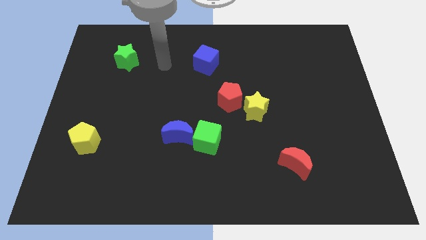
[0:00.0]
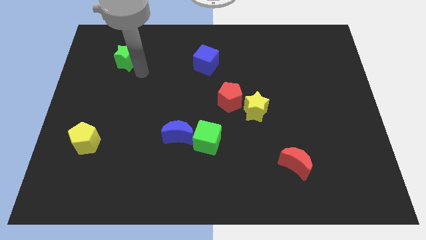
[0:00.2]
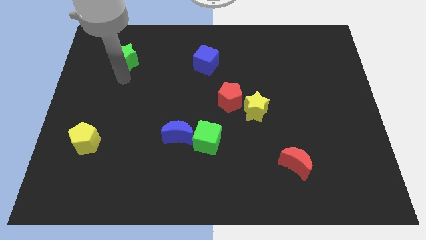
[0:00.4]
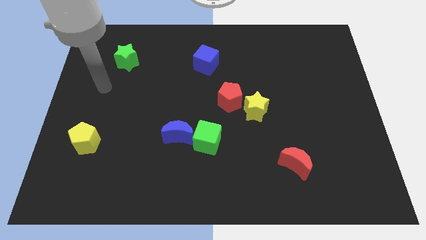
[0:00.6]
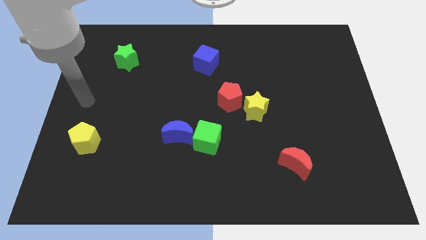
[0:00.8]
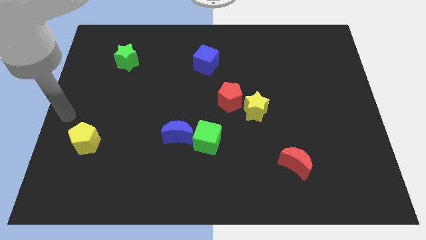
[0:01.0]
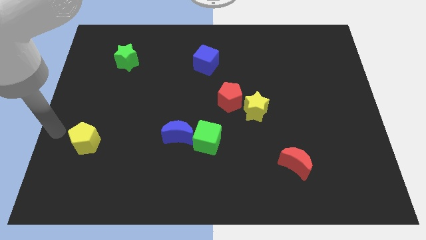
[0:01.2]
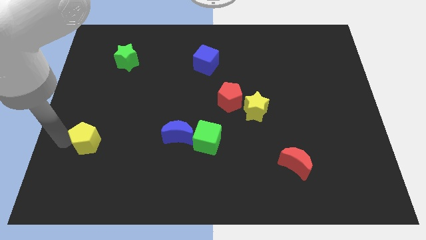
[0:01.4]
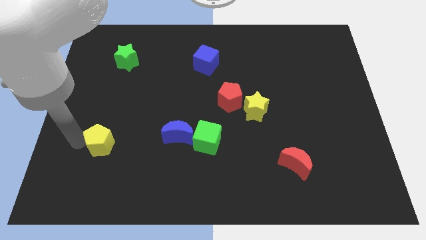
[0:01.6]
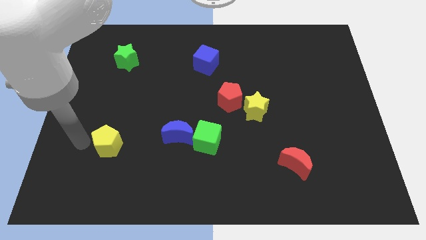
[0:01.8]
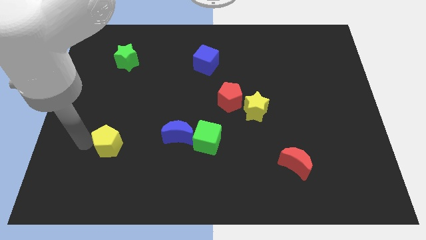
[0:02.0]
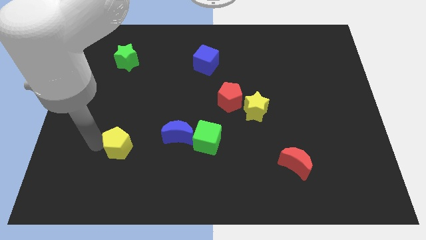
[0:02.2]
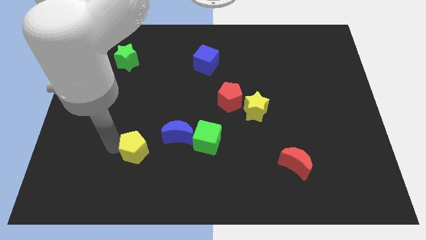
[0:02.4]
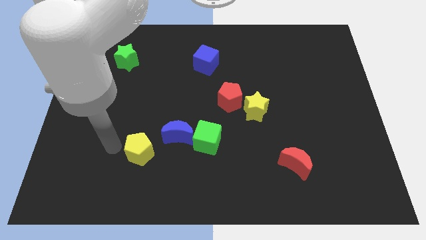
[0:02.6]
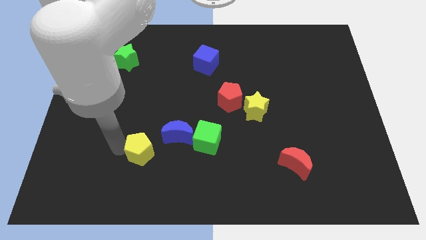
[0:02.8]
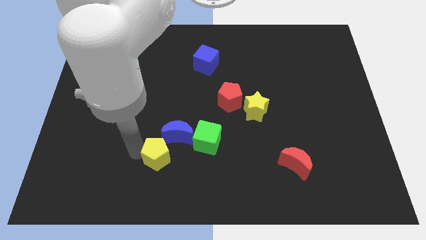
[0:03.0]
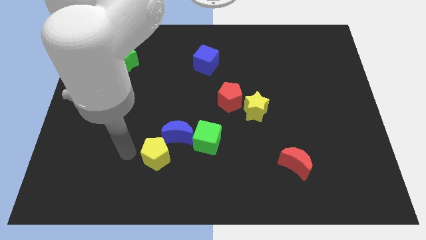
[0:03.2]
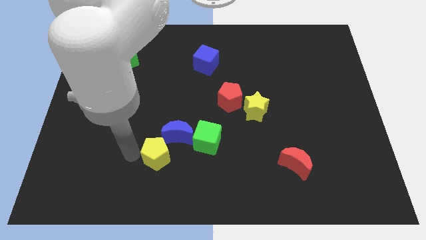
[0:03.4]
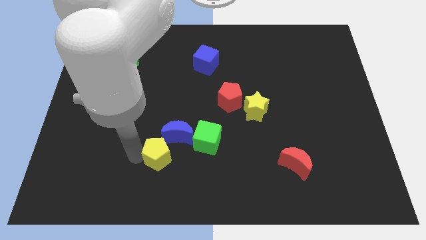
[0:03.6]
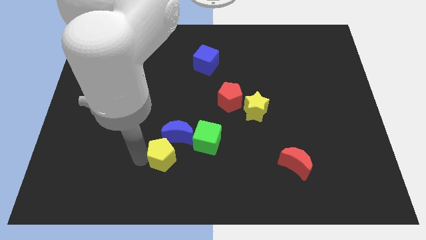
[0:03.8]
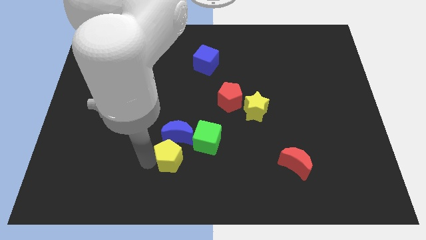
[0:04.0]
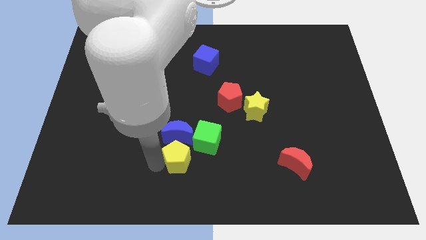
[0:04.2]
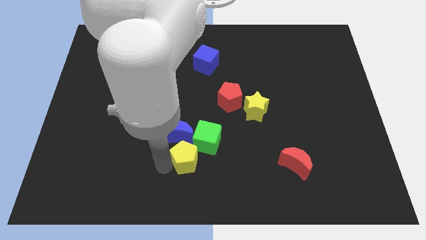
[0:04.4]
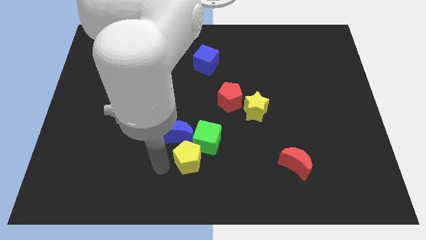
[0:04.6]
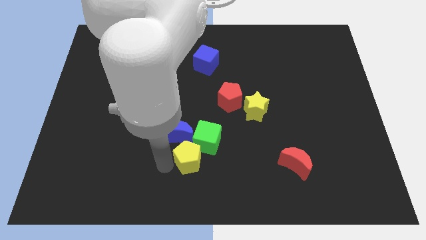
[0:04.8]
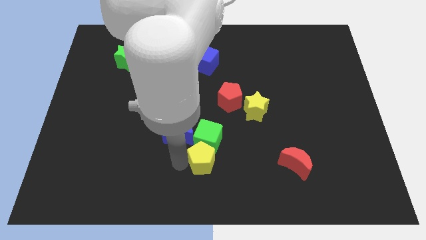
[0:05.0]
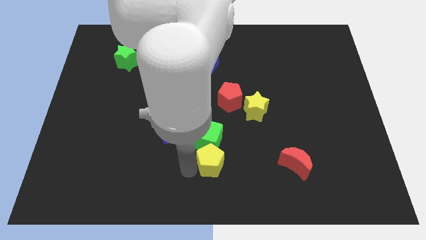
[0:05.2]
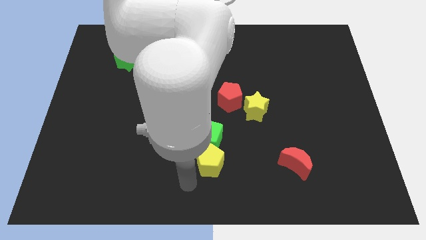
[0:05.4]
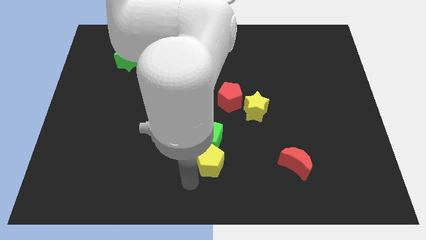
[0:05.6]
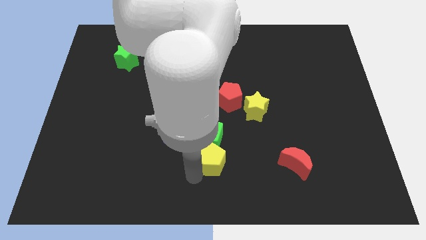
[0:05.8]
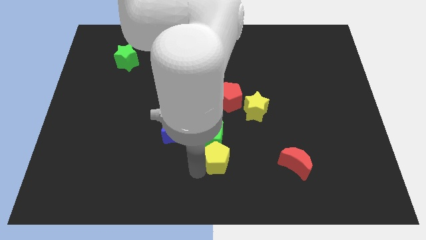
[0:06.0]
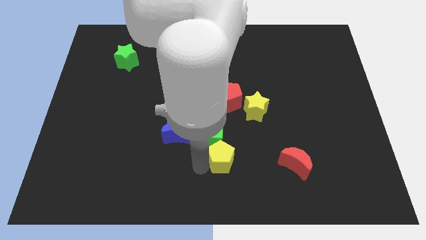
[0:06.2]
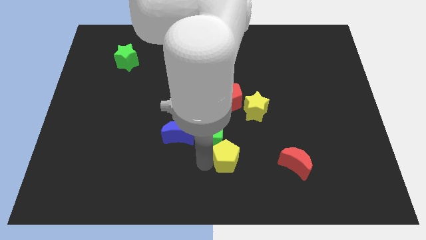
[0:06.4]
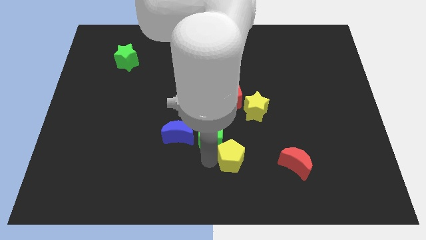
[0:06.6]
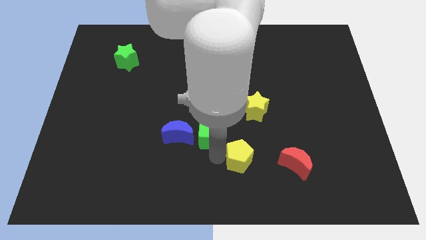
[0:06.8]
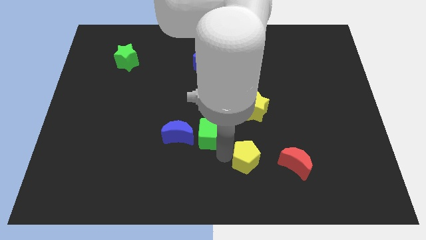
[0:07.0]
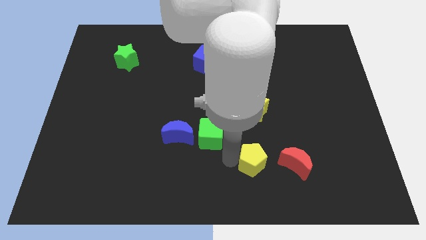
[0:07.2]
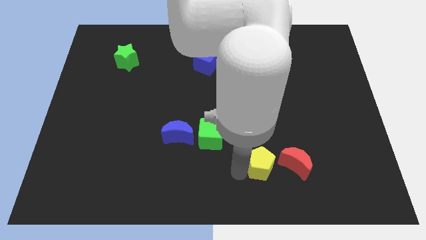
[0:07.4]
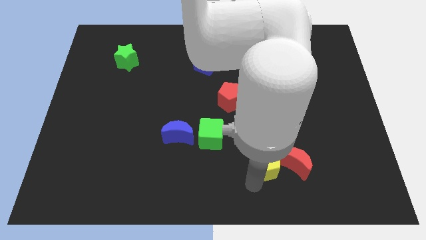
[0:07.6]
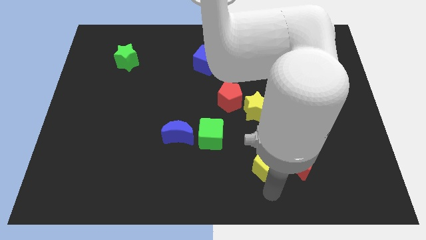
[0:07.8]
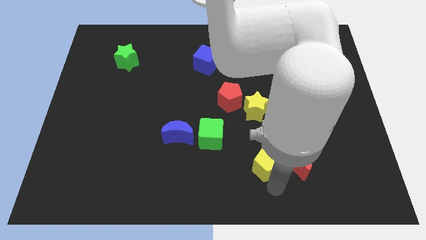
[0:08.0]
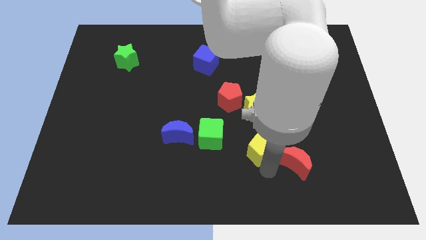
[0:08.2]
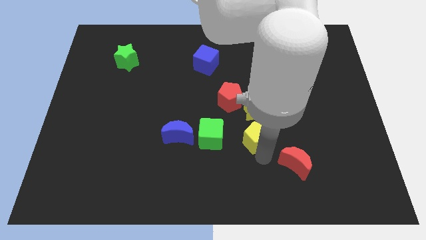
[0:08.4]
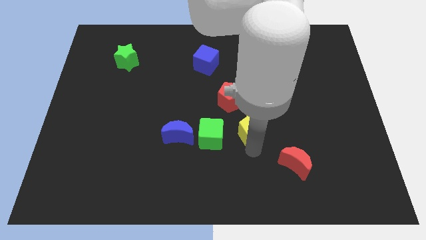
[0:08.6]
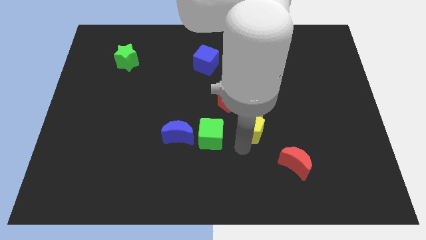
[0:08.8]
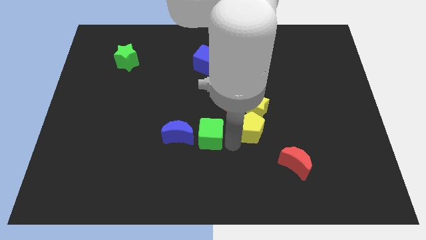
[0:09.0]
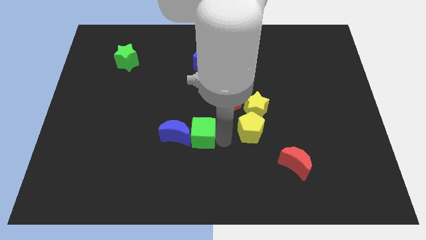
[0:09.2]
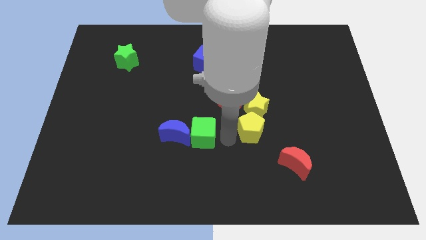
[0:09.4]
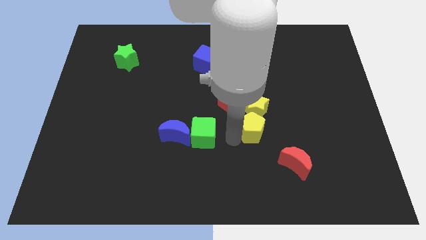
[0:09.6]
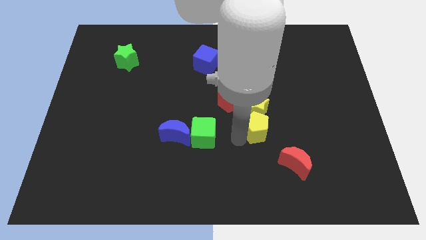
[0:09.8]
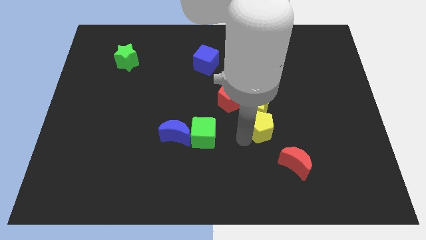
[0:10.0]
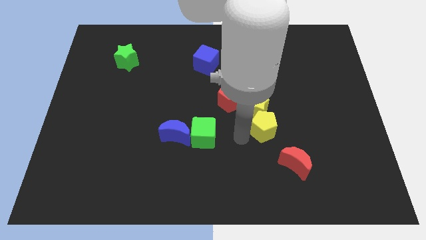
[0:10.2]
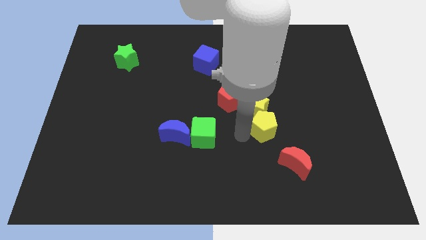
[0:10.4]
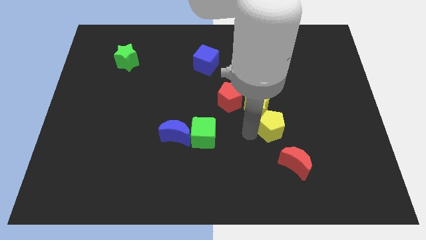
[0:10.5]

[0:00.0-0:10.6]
push the yellow pentagon to the top side of the red moon
